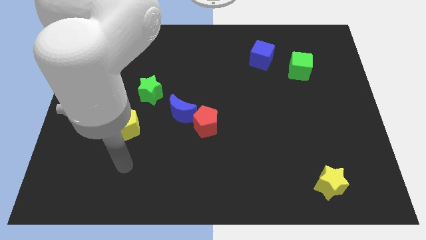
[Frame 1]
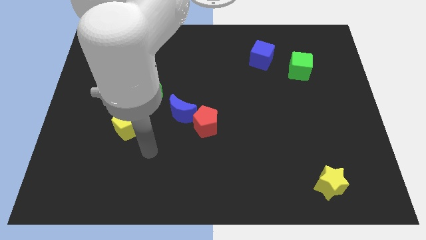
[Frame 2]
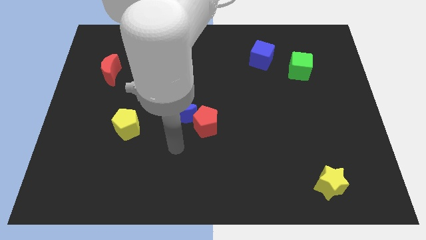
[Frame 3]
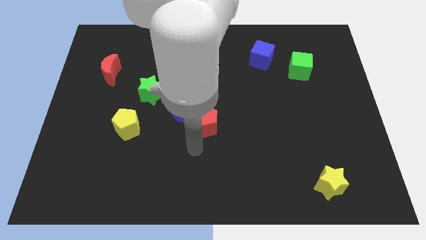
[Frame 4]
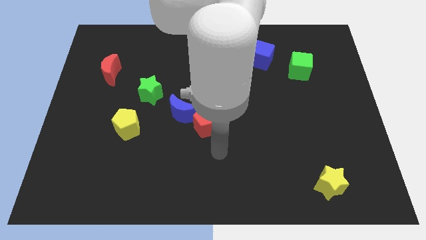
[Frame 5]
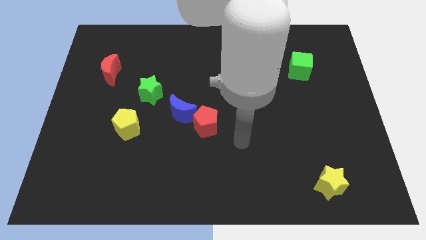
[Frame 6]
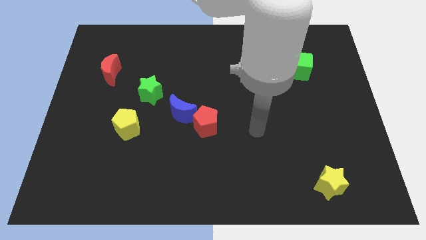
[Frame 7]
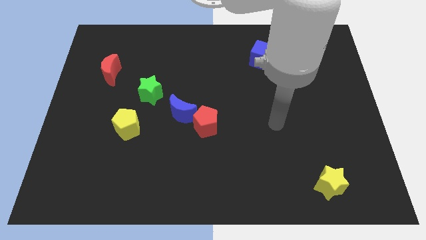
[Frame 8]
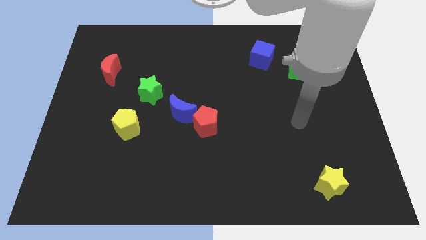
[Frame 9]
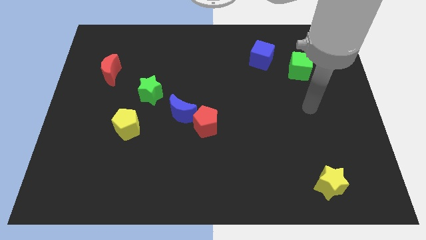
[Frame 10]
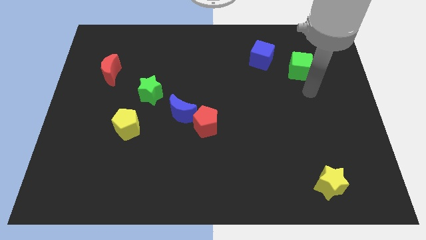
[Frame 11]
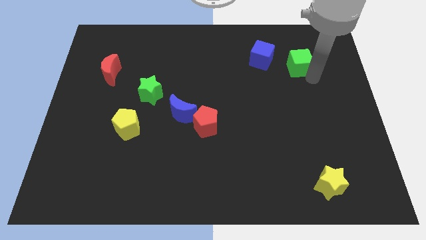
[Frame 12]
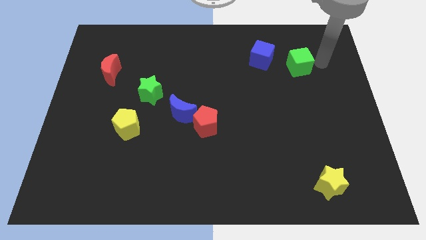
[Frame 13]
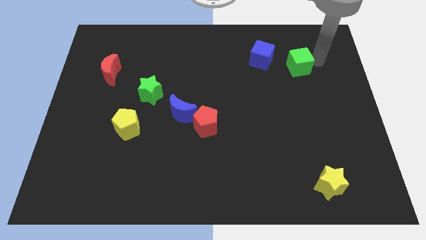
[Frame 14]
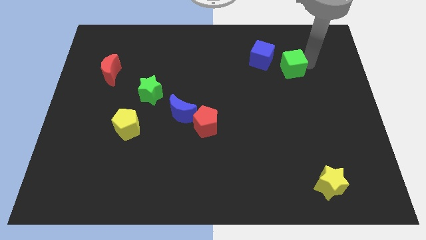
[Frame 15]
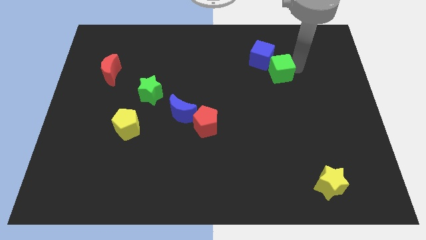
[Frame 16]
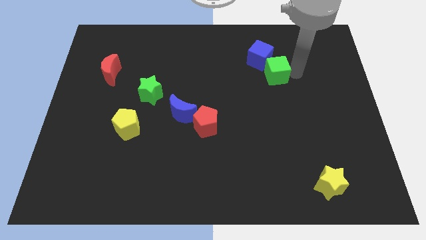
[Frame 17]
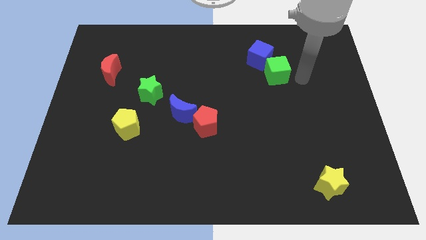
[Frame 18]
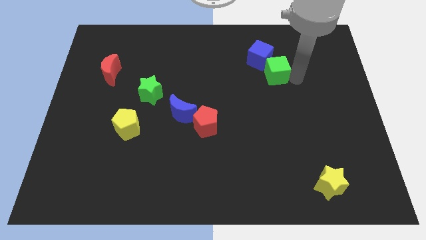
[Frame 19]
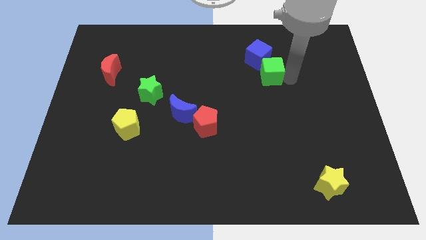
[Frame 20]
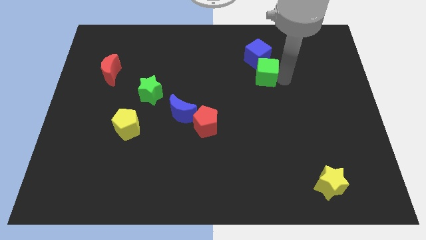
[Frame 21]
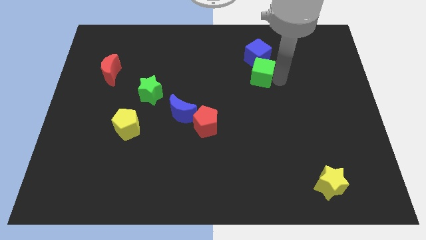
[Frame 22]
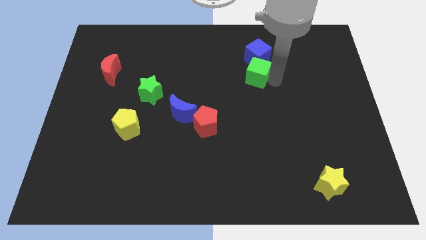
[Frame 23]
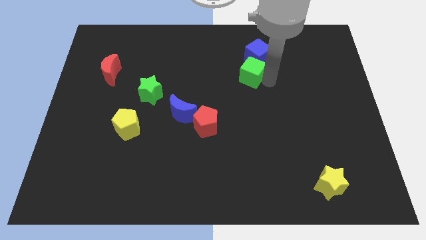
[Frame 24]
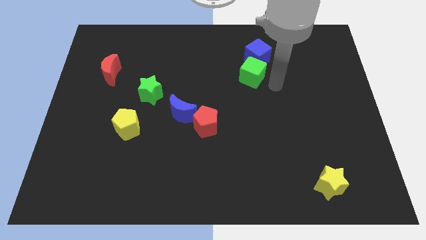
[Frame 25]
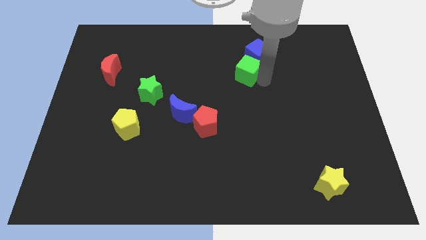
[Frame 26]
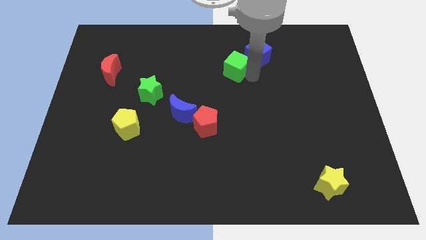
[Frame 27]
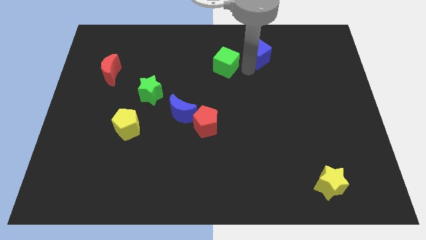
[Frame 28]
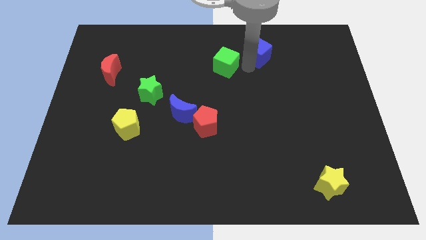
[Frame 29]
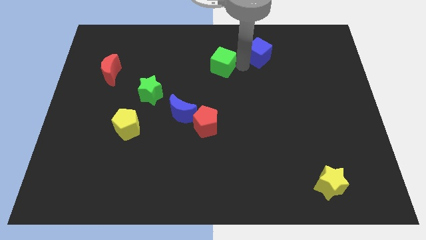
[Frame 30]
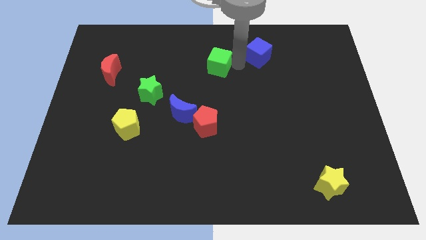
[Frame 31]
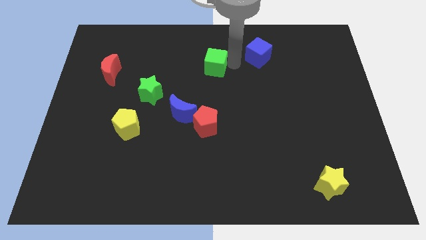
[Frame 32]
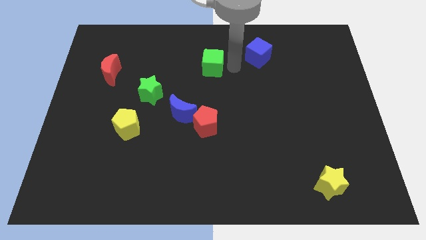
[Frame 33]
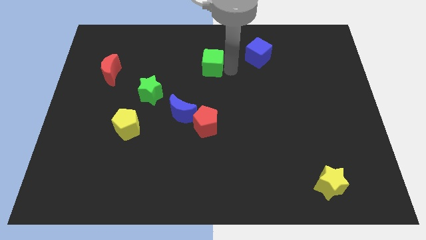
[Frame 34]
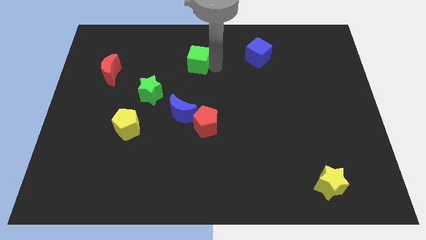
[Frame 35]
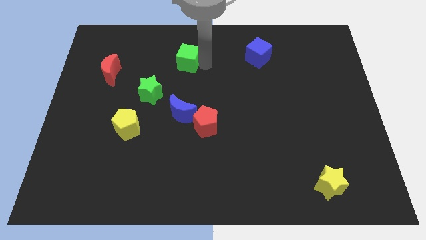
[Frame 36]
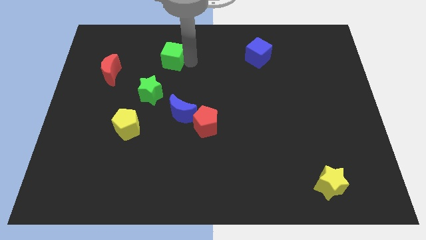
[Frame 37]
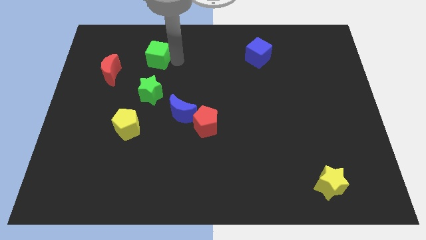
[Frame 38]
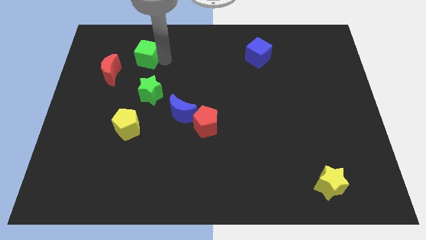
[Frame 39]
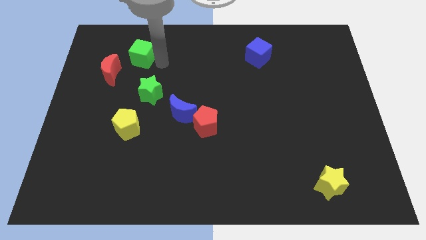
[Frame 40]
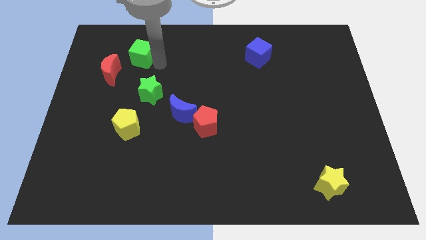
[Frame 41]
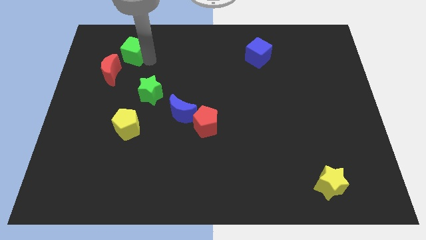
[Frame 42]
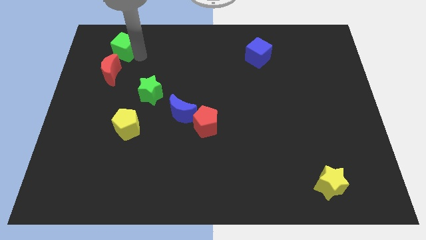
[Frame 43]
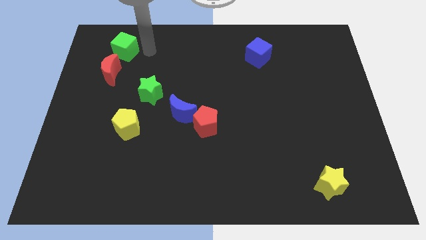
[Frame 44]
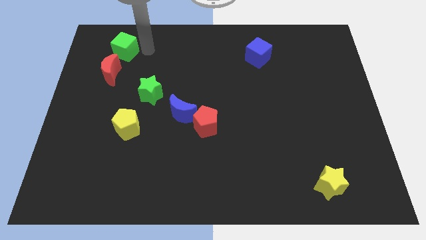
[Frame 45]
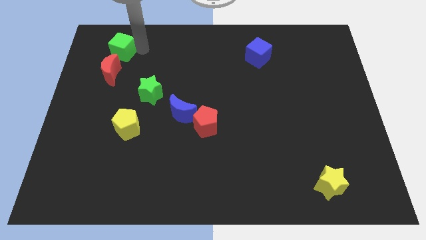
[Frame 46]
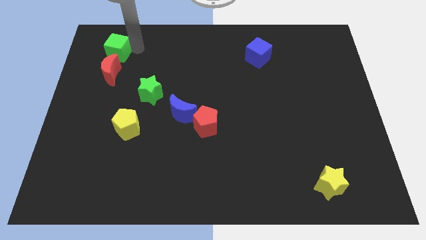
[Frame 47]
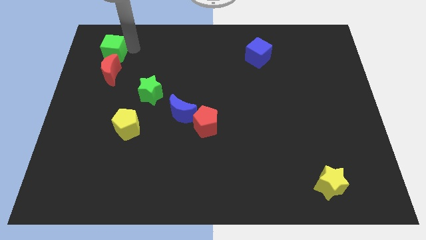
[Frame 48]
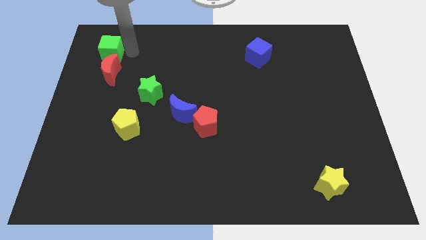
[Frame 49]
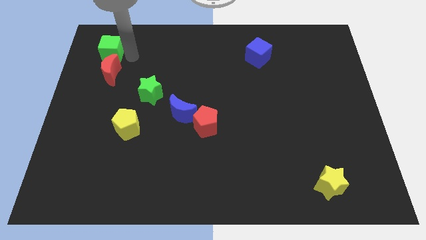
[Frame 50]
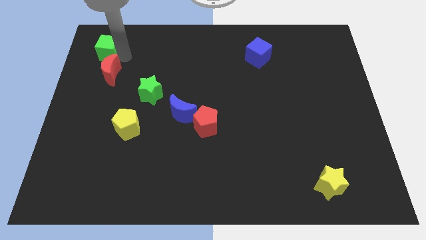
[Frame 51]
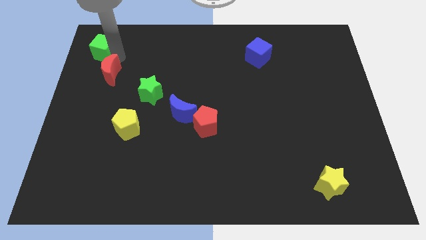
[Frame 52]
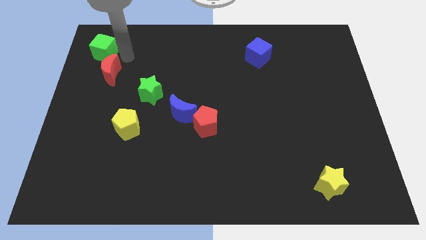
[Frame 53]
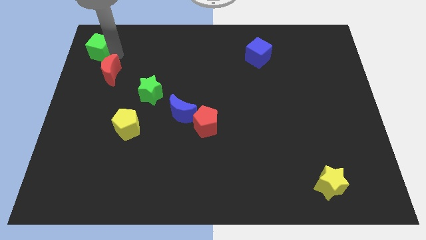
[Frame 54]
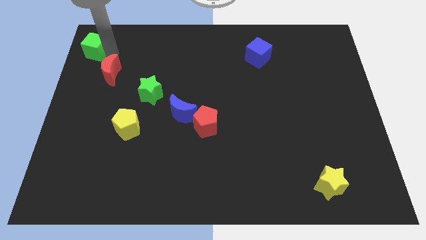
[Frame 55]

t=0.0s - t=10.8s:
slide the green cube to the top left of the board
